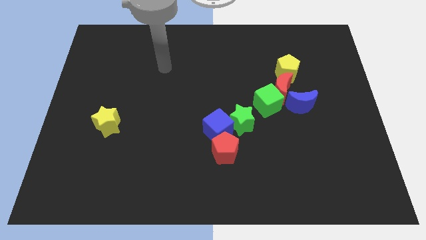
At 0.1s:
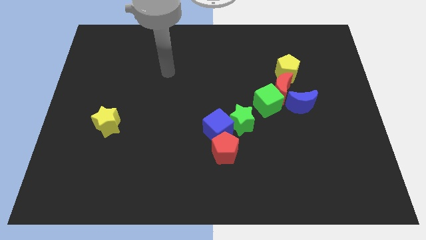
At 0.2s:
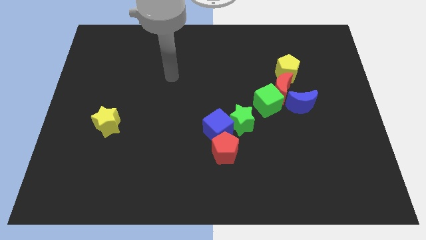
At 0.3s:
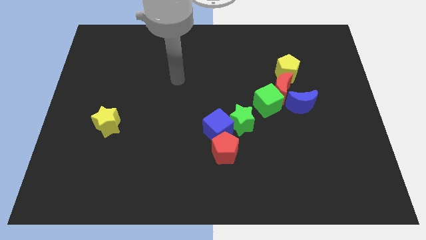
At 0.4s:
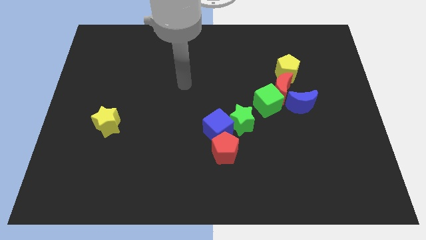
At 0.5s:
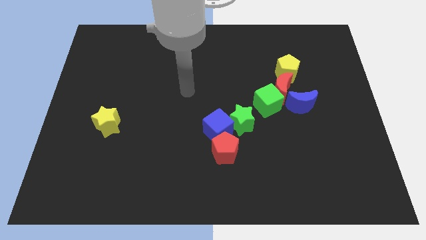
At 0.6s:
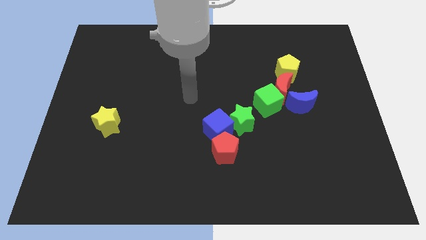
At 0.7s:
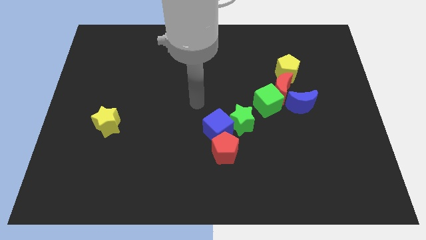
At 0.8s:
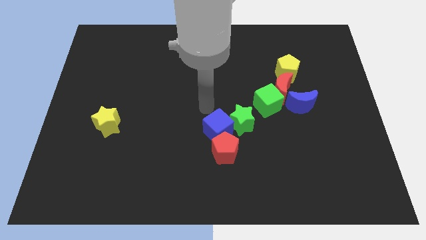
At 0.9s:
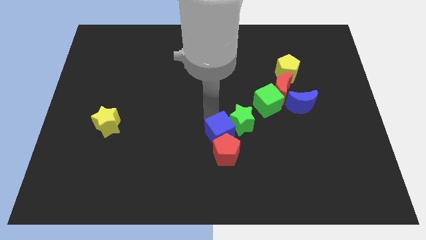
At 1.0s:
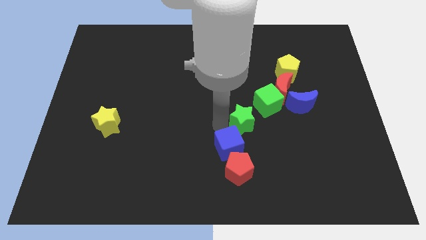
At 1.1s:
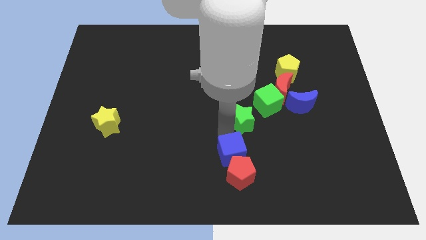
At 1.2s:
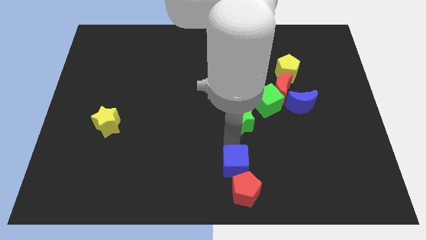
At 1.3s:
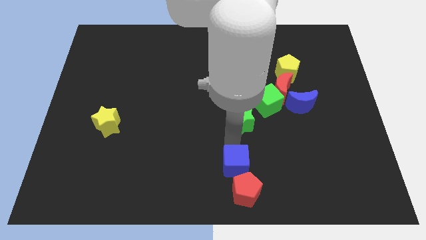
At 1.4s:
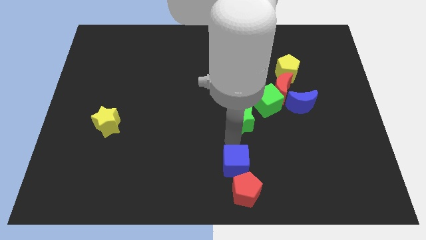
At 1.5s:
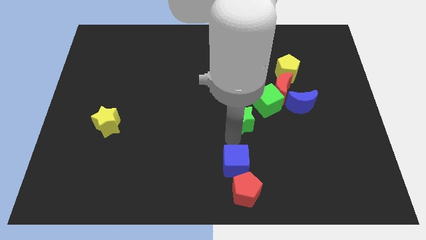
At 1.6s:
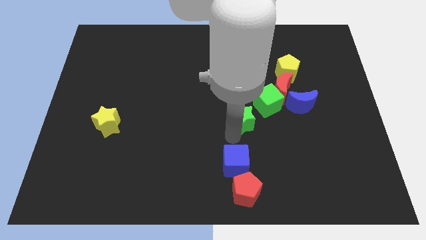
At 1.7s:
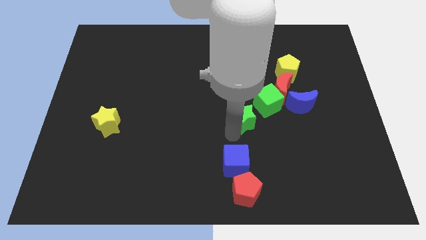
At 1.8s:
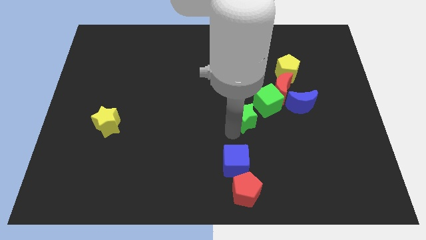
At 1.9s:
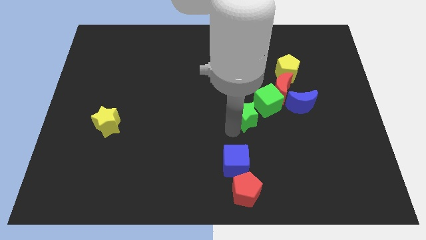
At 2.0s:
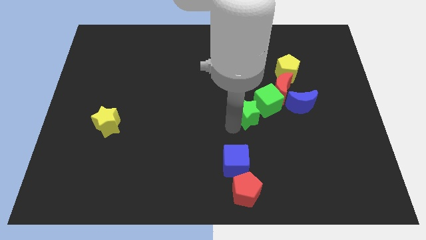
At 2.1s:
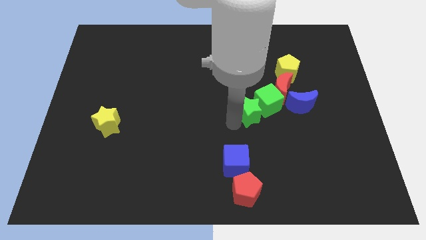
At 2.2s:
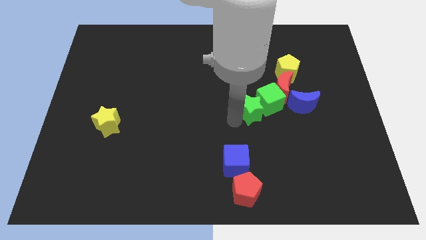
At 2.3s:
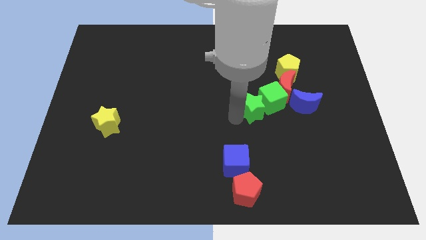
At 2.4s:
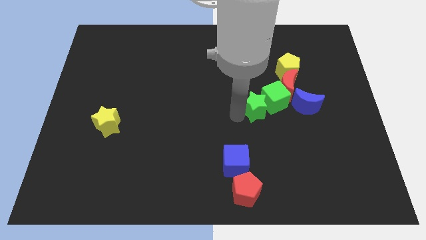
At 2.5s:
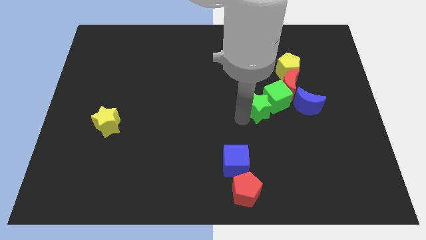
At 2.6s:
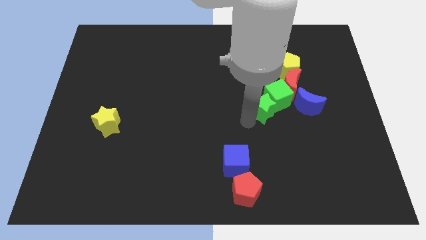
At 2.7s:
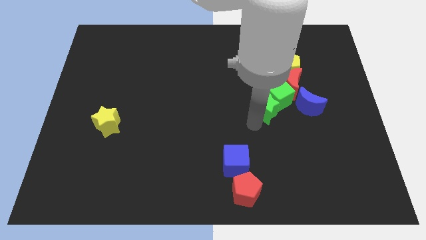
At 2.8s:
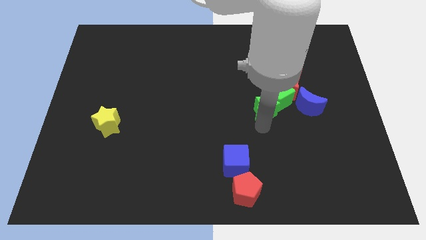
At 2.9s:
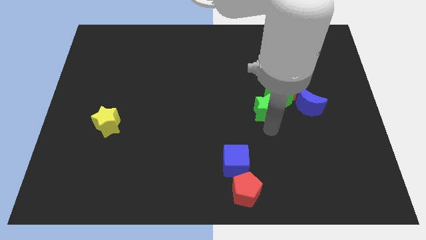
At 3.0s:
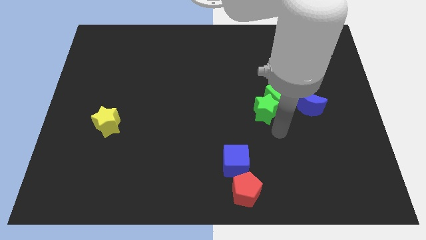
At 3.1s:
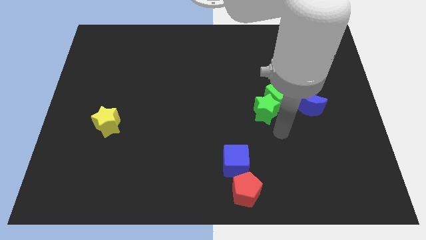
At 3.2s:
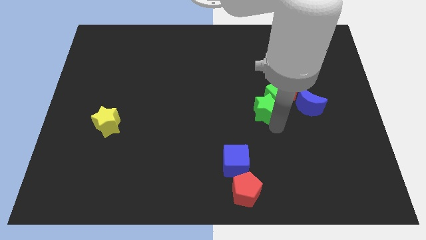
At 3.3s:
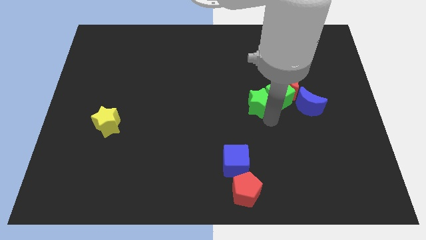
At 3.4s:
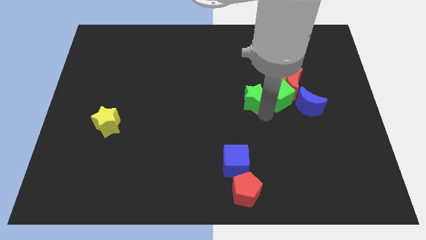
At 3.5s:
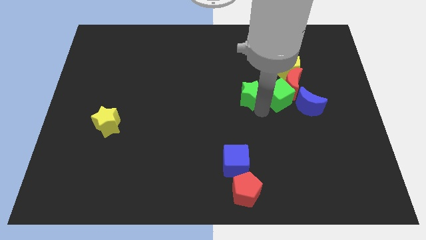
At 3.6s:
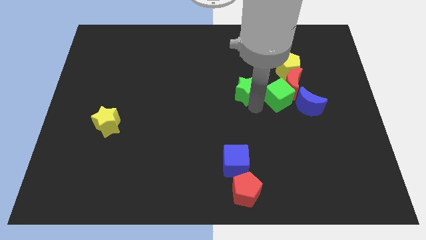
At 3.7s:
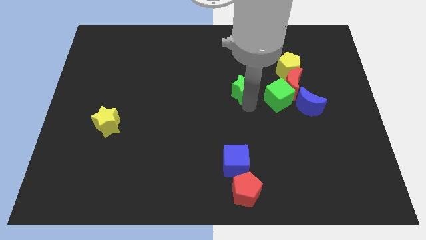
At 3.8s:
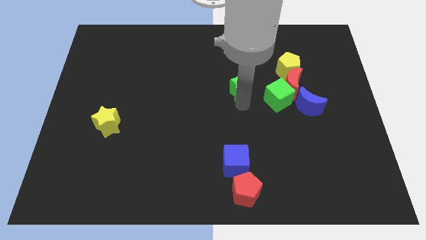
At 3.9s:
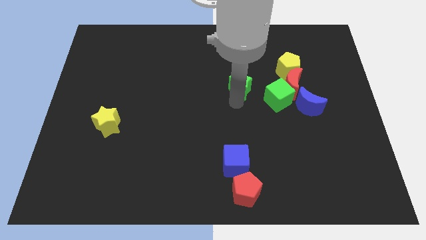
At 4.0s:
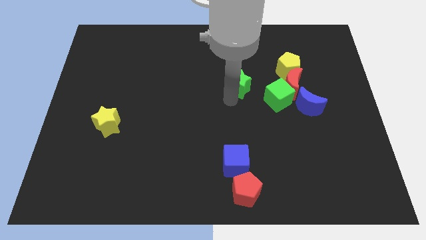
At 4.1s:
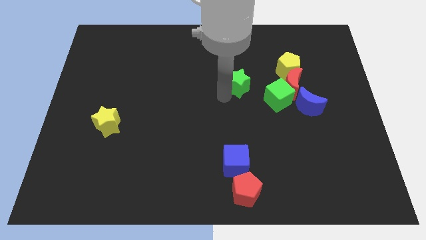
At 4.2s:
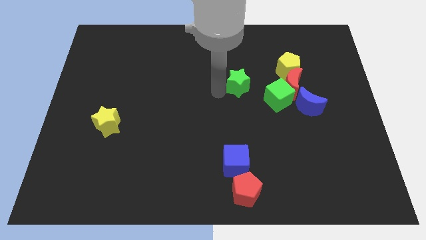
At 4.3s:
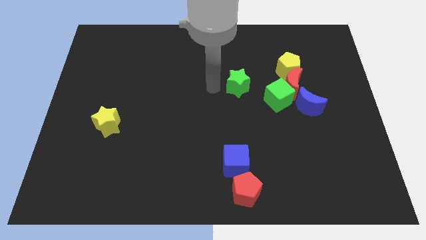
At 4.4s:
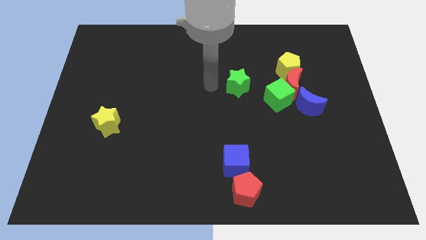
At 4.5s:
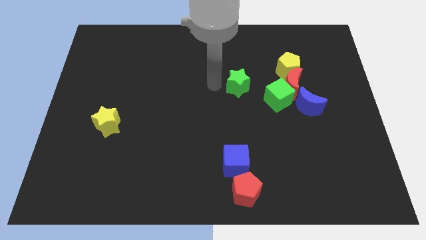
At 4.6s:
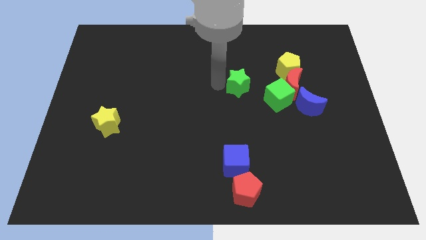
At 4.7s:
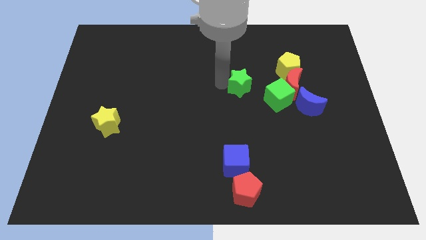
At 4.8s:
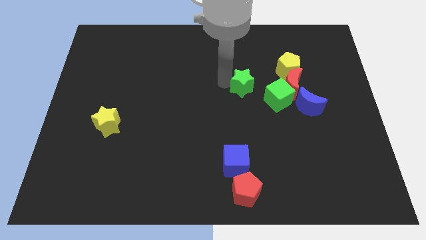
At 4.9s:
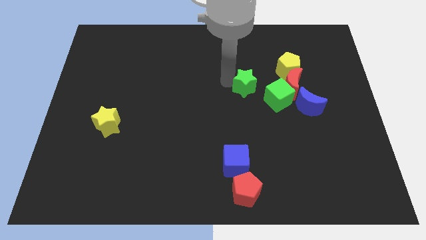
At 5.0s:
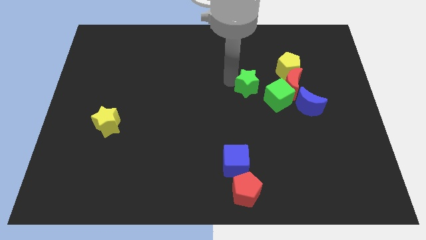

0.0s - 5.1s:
slide the green star diagonally down and to the left of the yellow pentagon

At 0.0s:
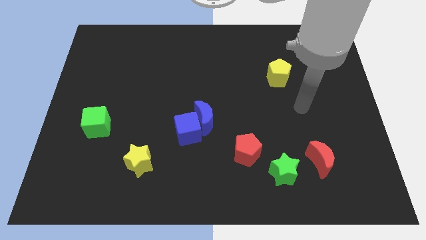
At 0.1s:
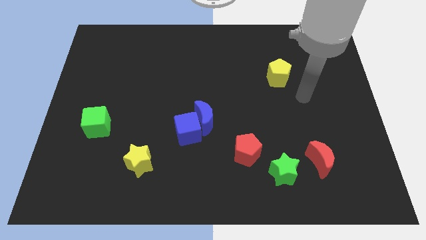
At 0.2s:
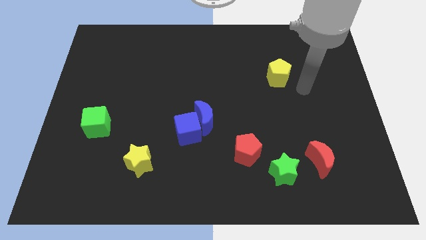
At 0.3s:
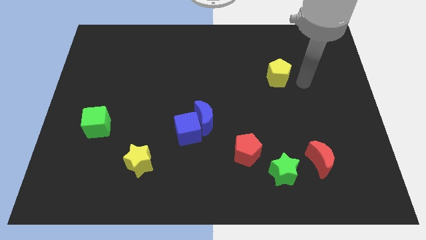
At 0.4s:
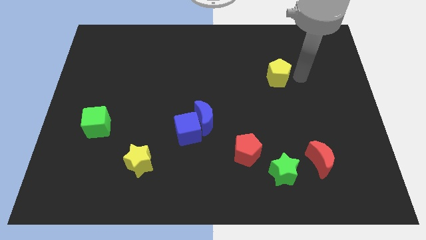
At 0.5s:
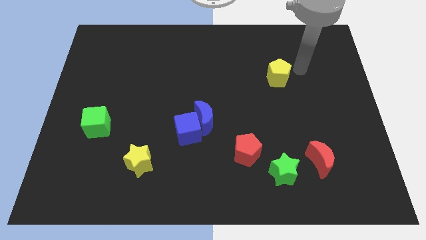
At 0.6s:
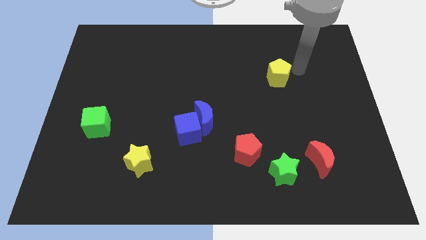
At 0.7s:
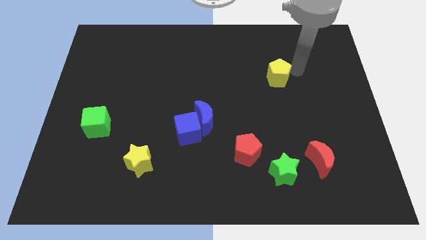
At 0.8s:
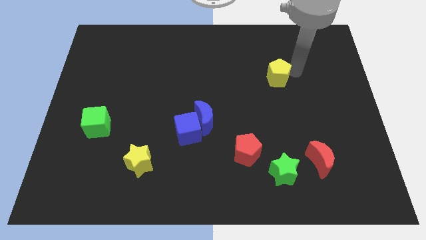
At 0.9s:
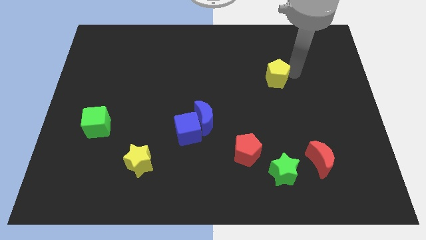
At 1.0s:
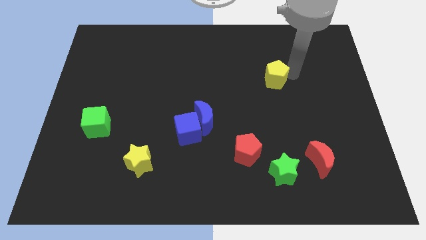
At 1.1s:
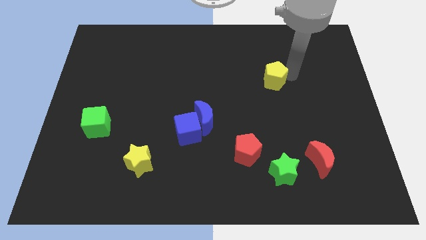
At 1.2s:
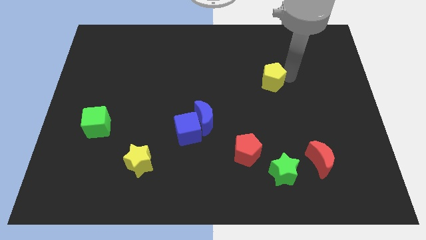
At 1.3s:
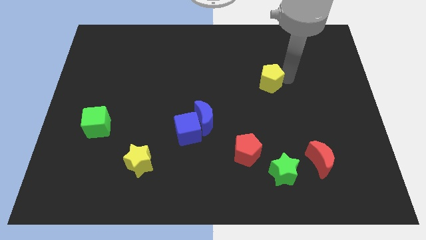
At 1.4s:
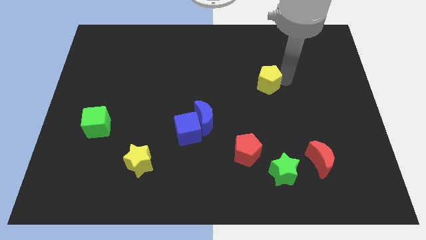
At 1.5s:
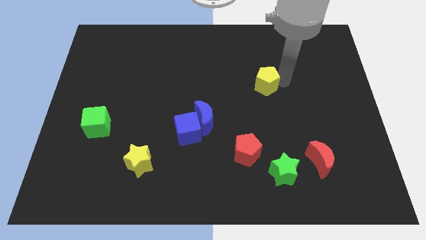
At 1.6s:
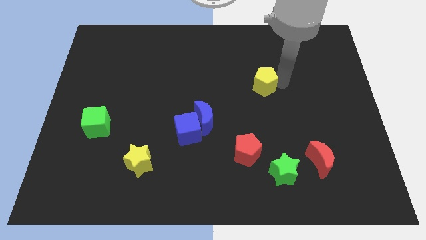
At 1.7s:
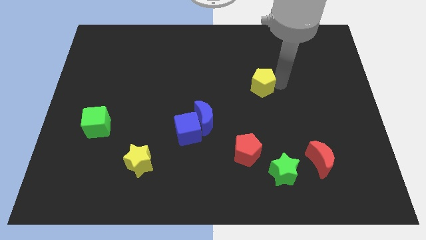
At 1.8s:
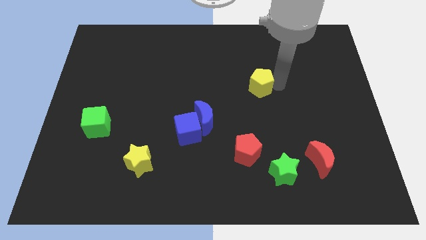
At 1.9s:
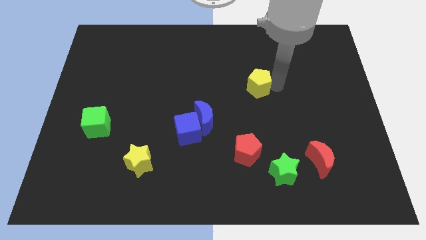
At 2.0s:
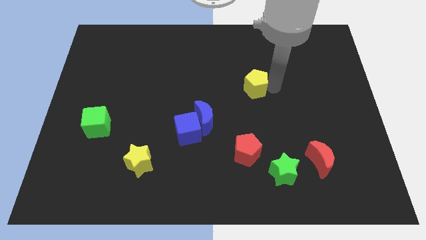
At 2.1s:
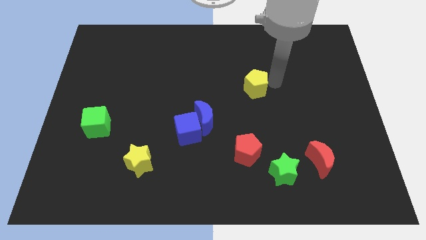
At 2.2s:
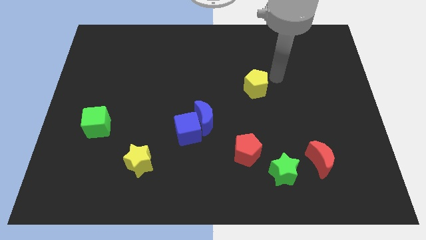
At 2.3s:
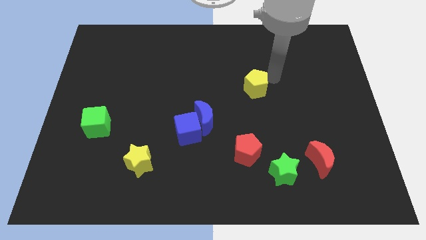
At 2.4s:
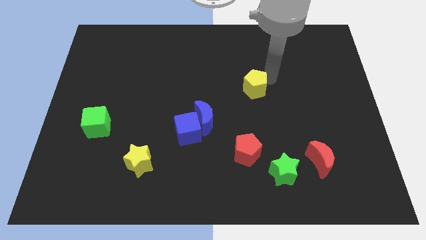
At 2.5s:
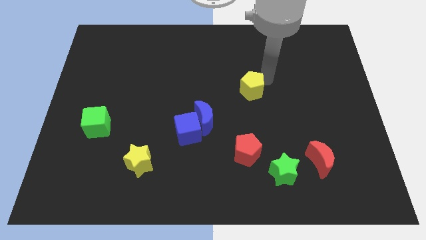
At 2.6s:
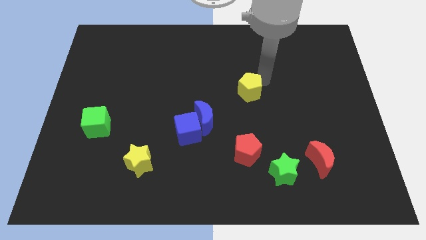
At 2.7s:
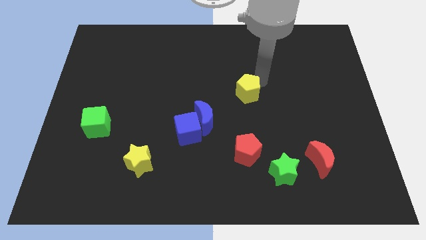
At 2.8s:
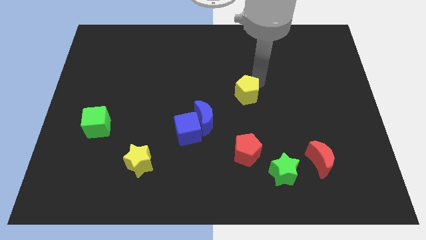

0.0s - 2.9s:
push the yellow pentagon to the top right of the blue moon
